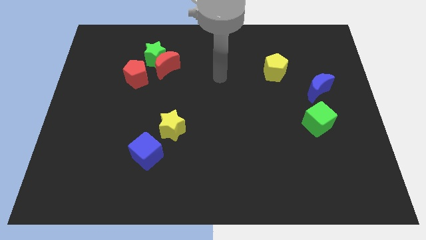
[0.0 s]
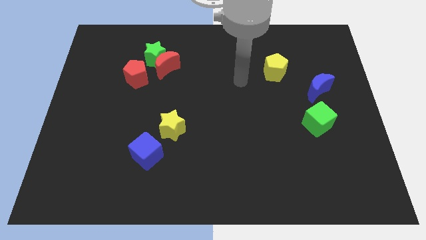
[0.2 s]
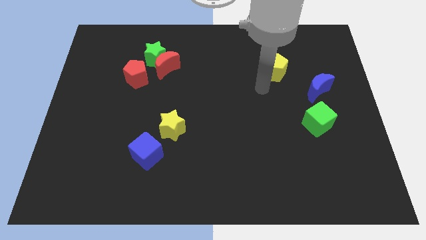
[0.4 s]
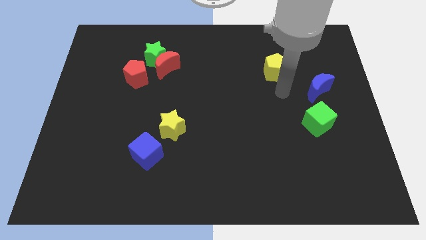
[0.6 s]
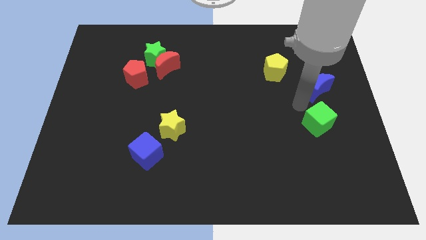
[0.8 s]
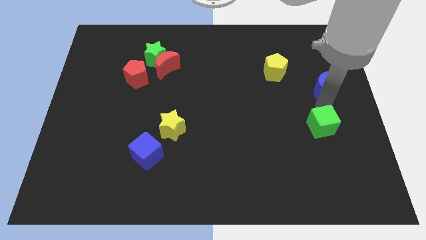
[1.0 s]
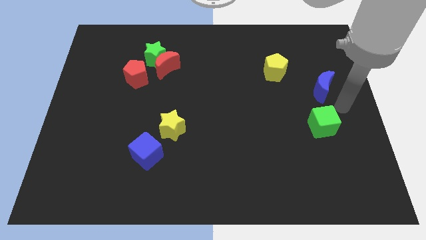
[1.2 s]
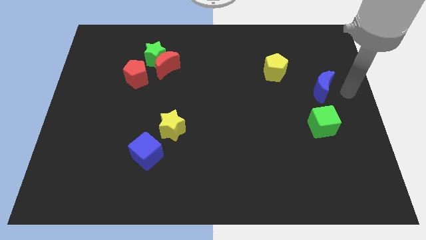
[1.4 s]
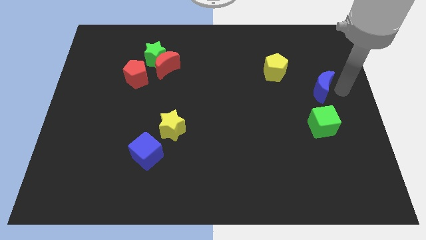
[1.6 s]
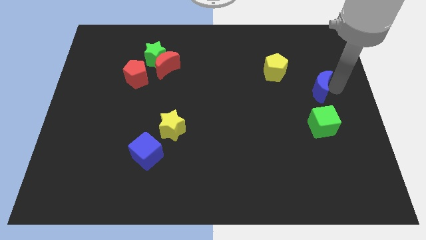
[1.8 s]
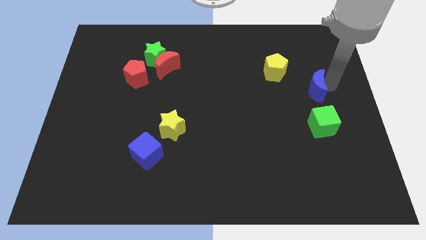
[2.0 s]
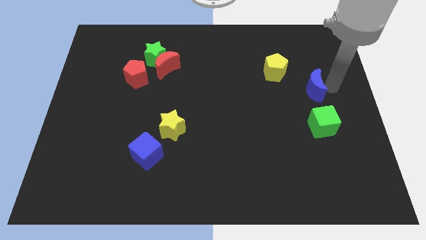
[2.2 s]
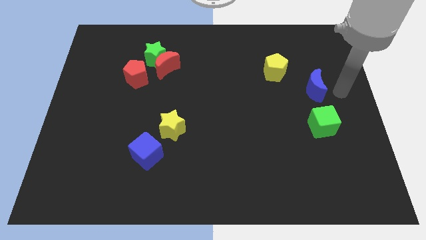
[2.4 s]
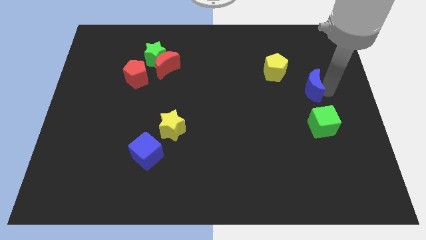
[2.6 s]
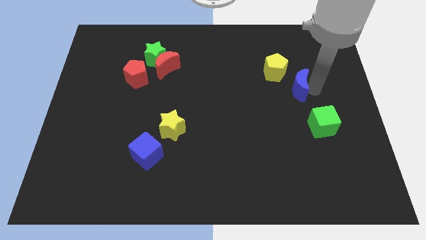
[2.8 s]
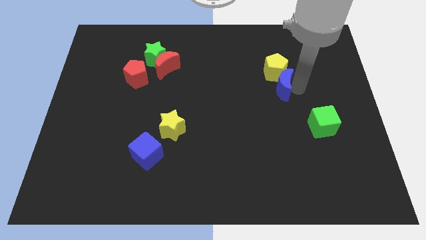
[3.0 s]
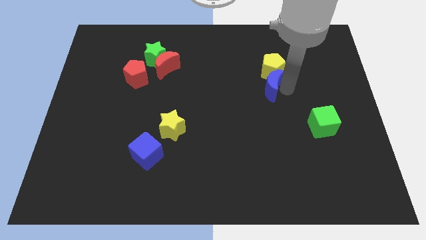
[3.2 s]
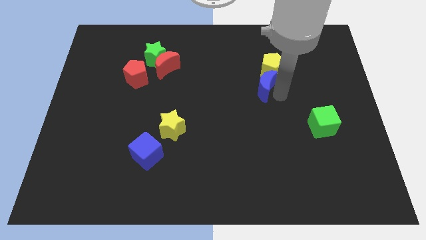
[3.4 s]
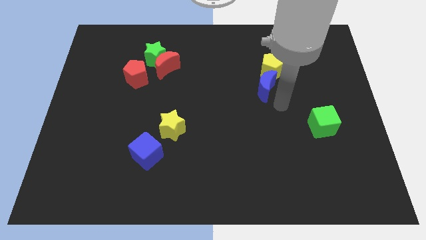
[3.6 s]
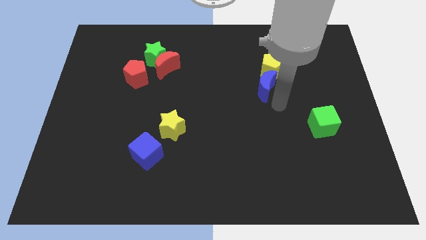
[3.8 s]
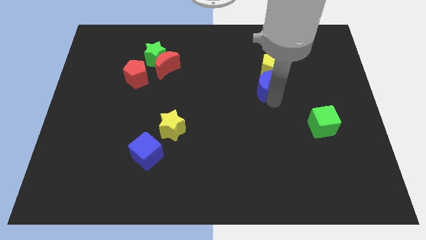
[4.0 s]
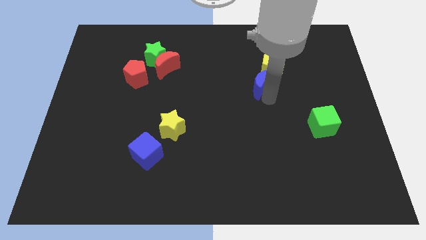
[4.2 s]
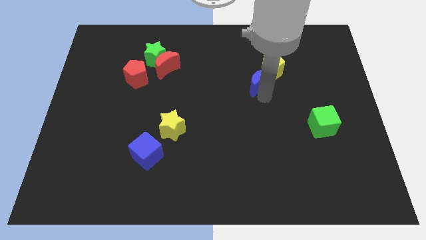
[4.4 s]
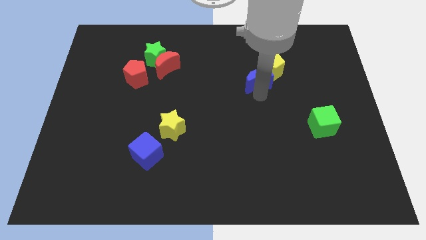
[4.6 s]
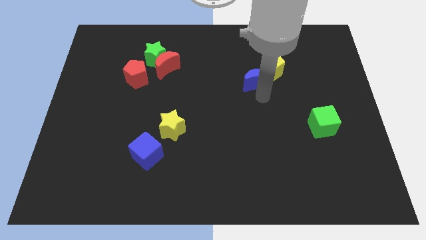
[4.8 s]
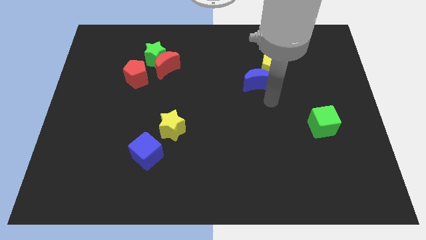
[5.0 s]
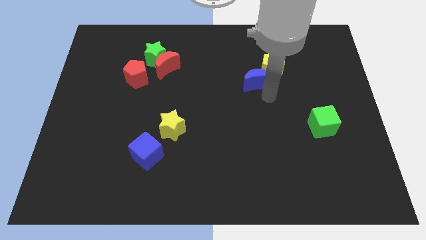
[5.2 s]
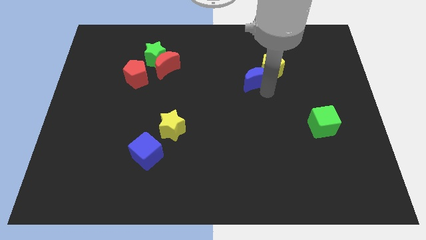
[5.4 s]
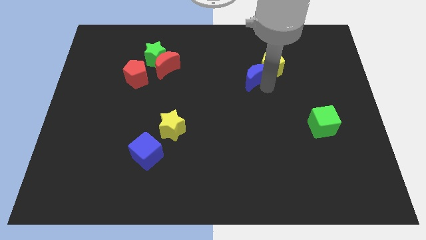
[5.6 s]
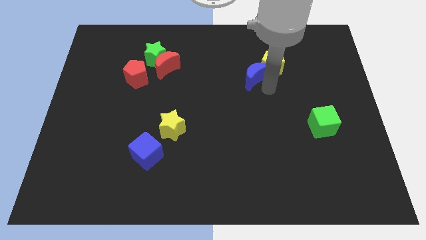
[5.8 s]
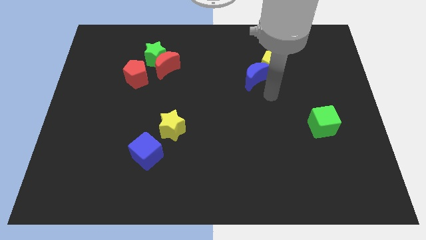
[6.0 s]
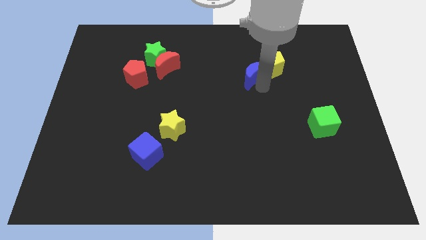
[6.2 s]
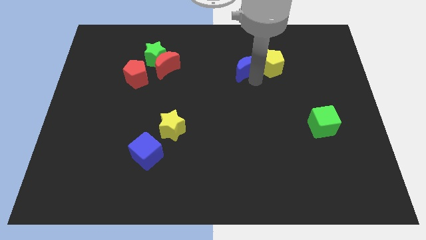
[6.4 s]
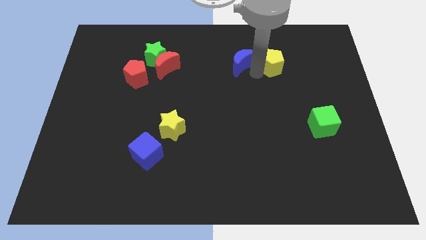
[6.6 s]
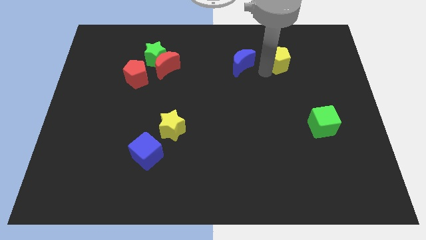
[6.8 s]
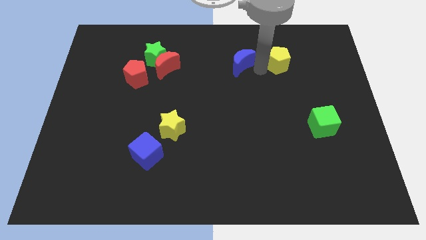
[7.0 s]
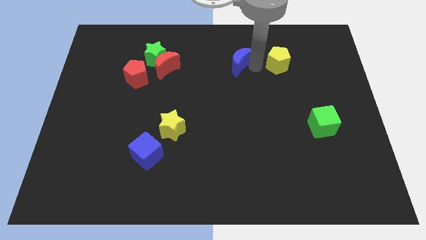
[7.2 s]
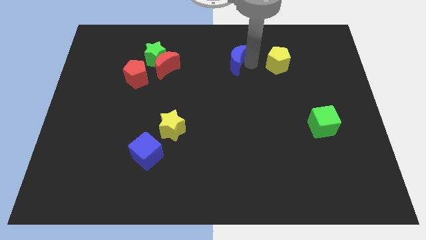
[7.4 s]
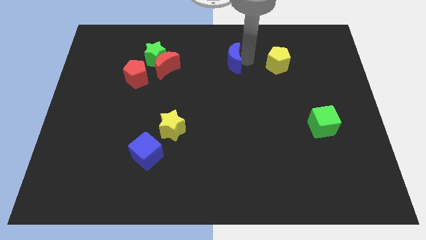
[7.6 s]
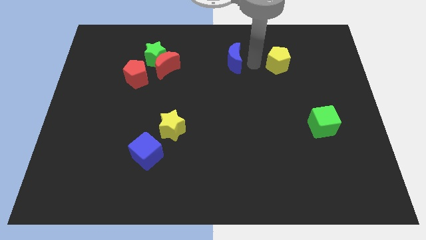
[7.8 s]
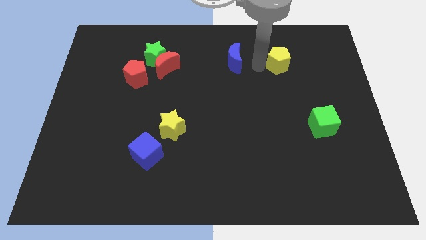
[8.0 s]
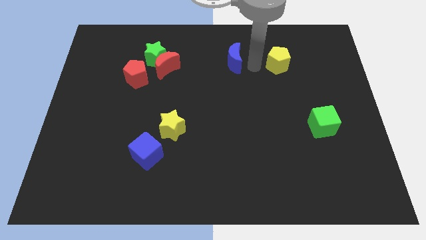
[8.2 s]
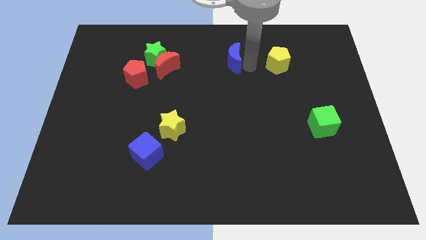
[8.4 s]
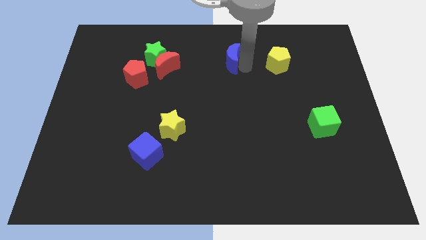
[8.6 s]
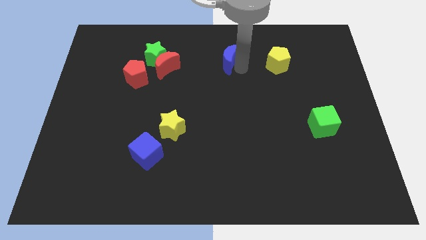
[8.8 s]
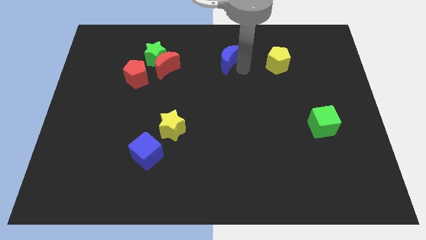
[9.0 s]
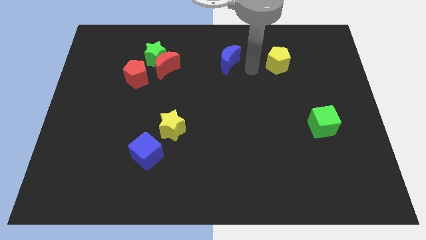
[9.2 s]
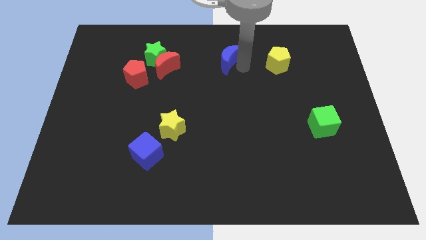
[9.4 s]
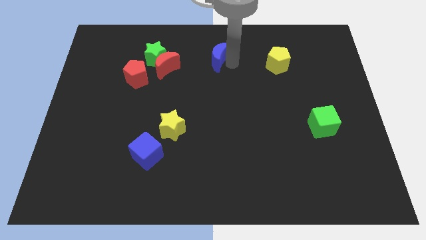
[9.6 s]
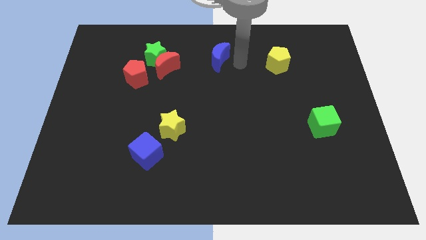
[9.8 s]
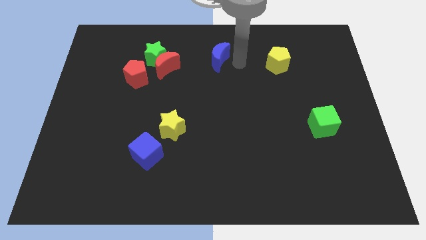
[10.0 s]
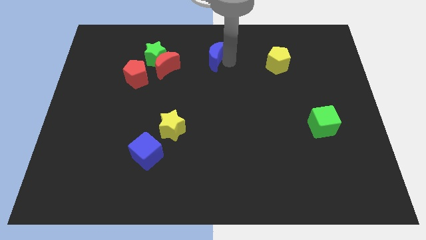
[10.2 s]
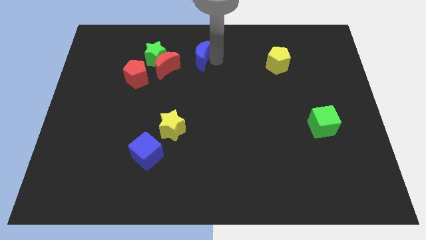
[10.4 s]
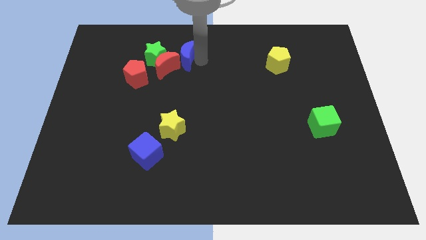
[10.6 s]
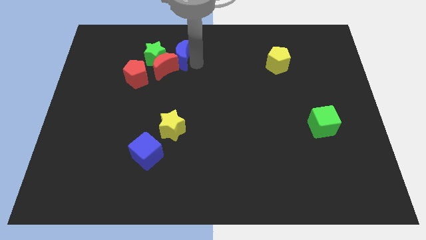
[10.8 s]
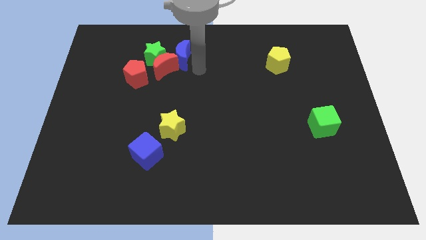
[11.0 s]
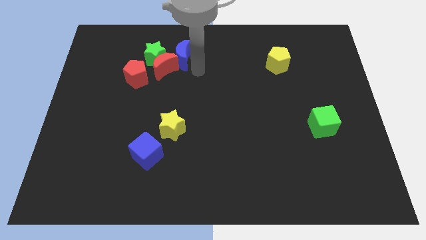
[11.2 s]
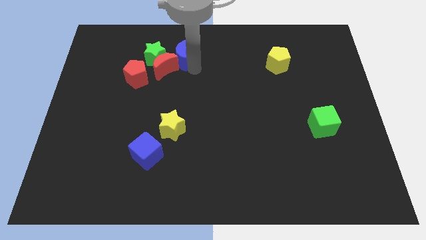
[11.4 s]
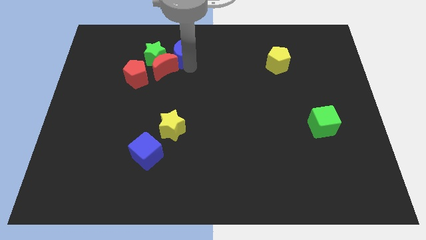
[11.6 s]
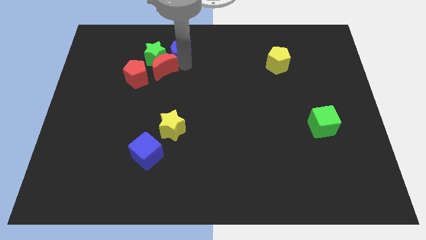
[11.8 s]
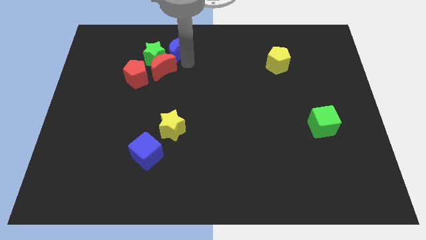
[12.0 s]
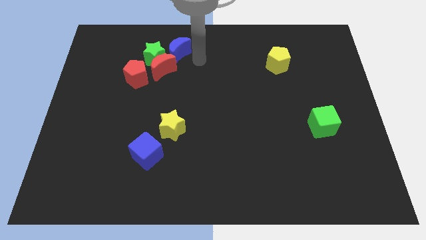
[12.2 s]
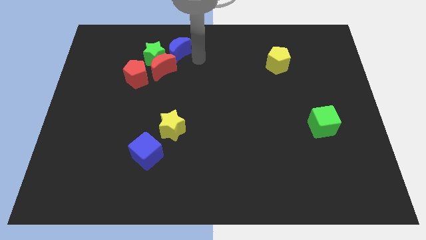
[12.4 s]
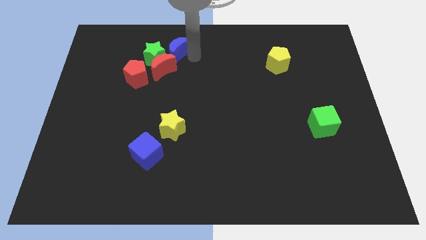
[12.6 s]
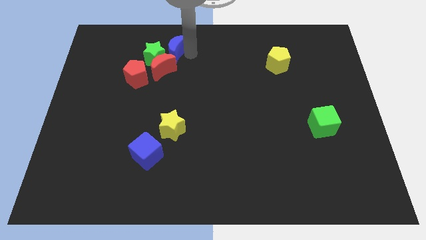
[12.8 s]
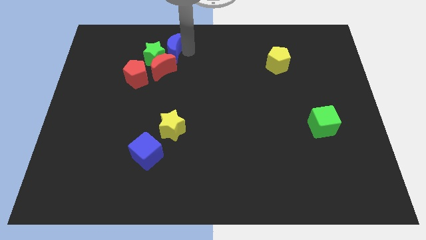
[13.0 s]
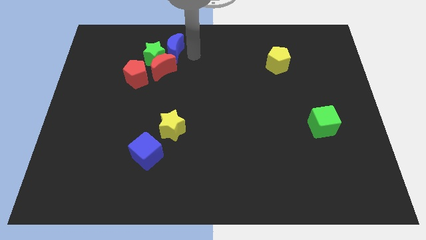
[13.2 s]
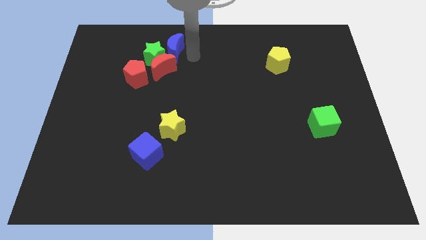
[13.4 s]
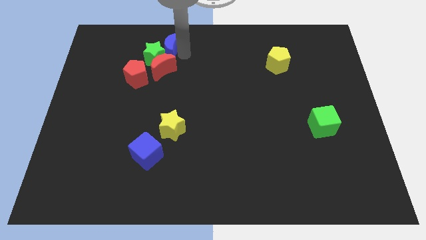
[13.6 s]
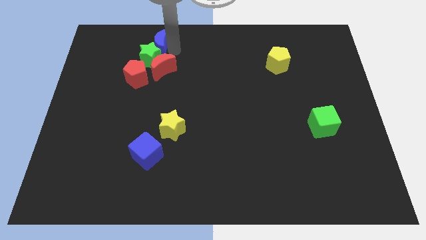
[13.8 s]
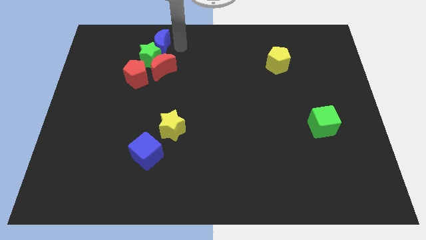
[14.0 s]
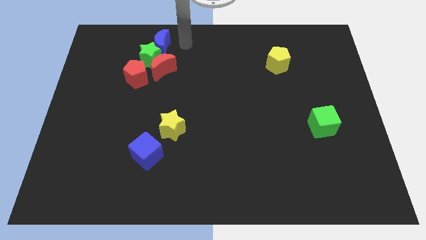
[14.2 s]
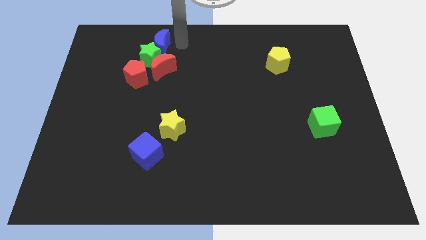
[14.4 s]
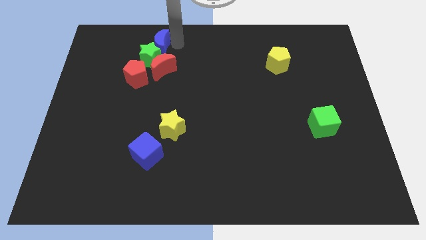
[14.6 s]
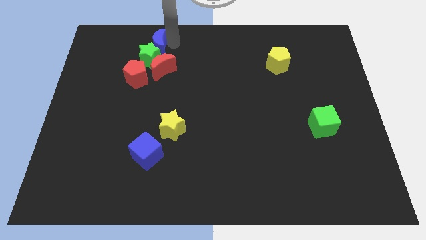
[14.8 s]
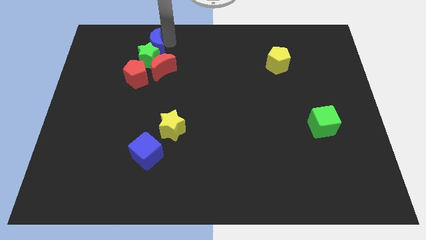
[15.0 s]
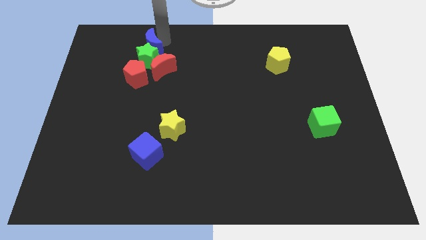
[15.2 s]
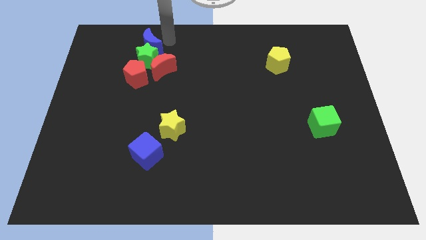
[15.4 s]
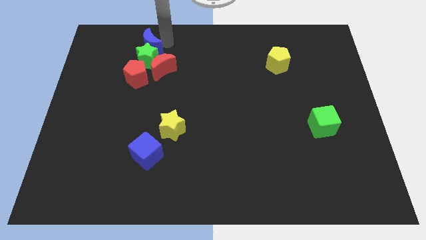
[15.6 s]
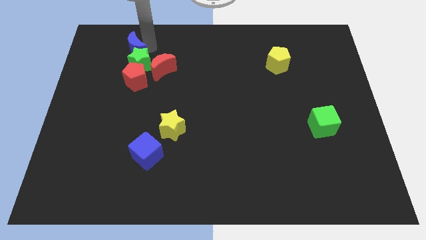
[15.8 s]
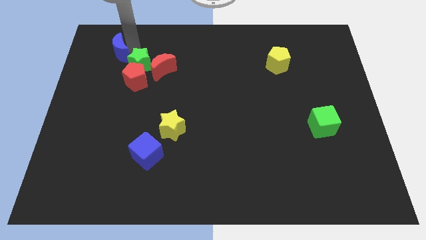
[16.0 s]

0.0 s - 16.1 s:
move the blue moon to the left side of the green star

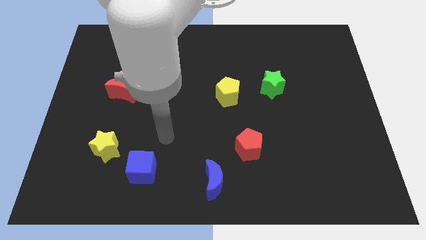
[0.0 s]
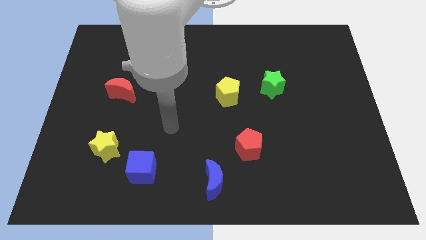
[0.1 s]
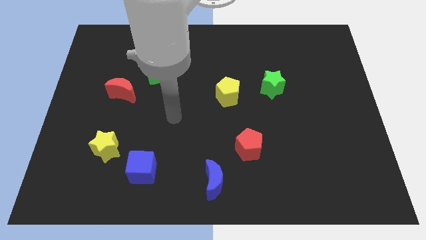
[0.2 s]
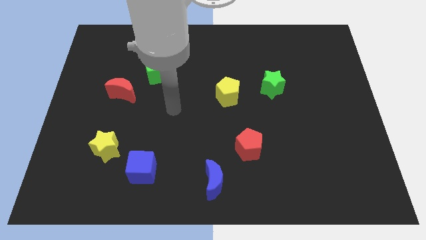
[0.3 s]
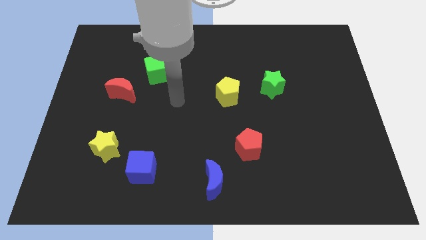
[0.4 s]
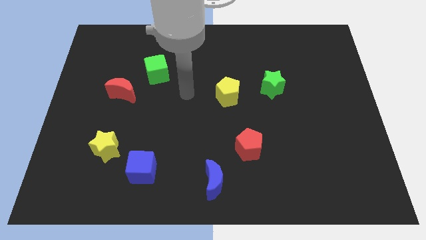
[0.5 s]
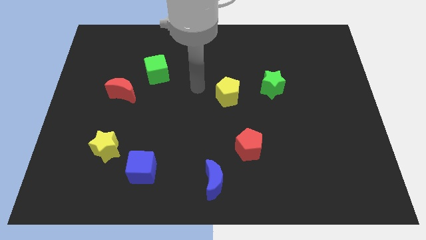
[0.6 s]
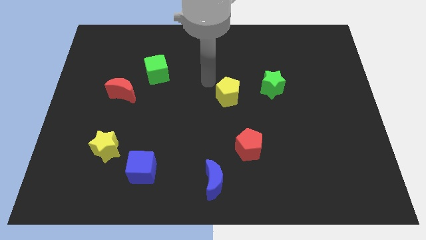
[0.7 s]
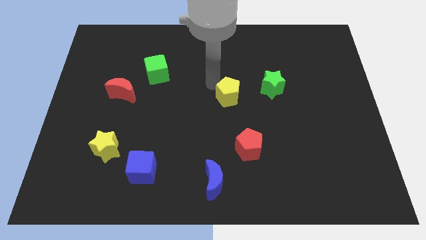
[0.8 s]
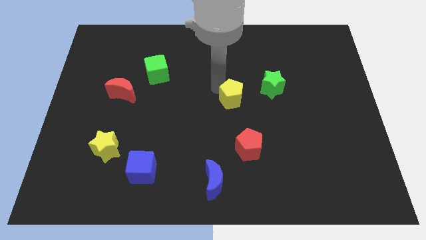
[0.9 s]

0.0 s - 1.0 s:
put the yellow pentagon to the top of the red pentagon
